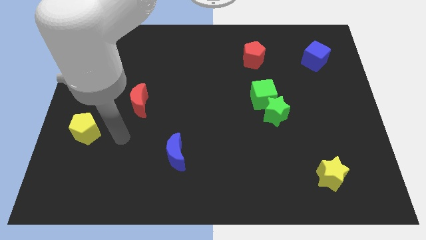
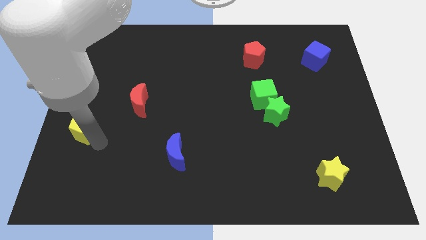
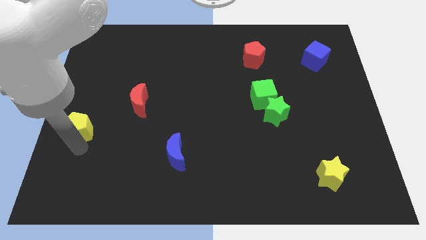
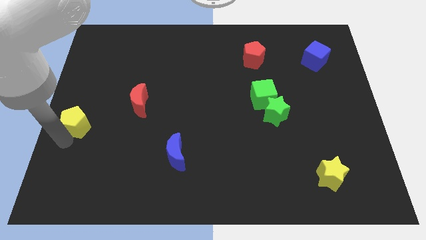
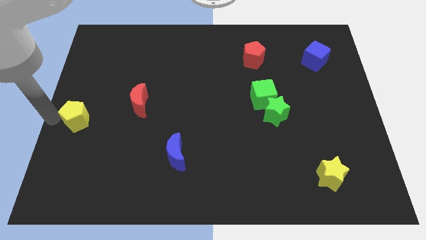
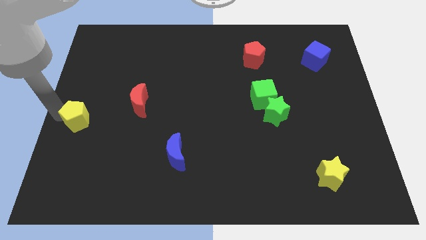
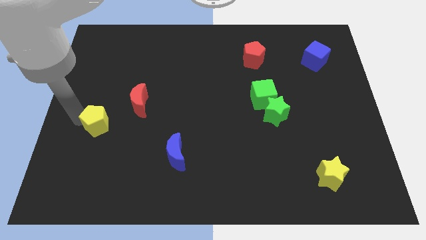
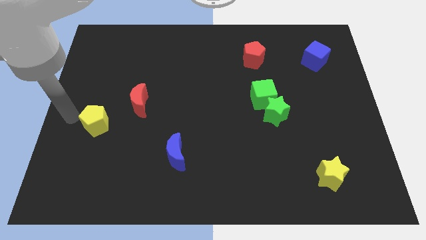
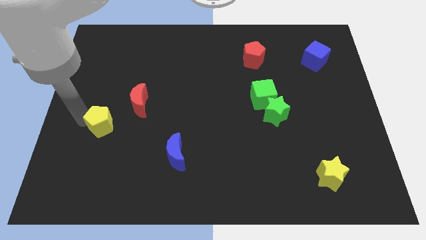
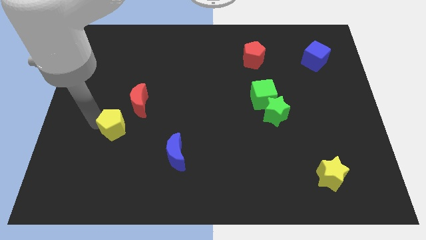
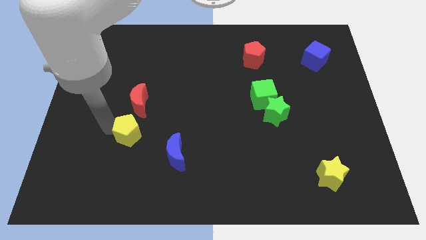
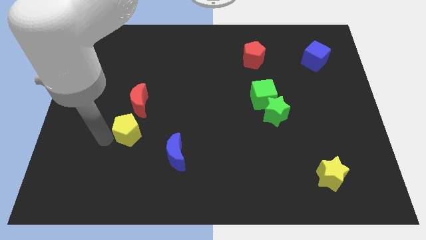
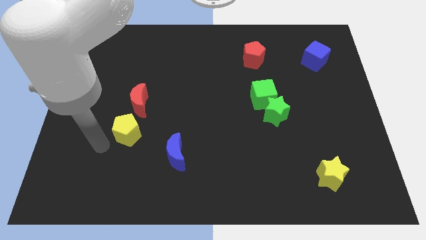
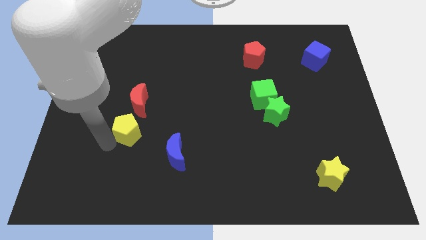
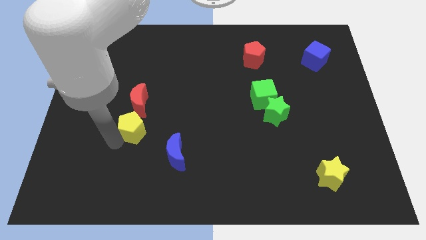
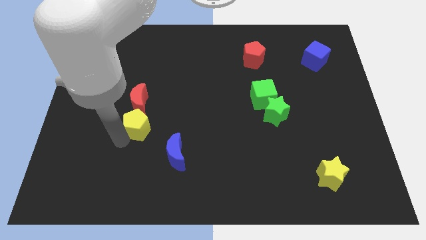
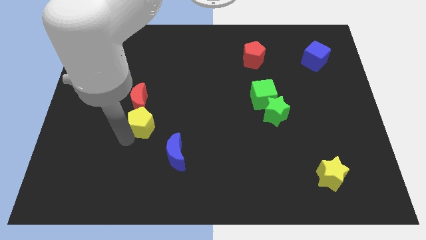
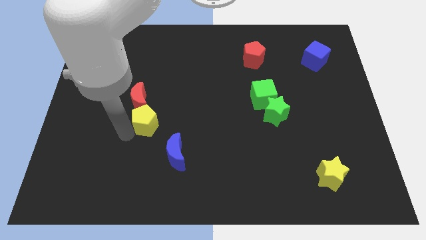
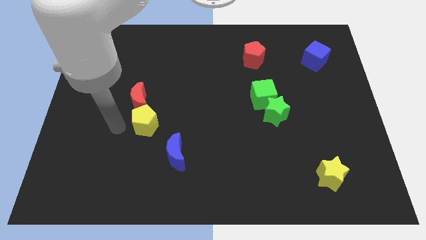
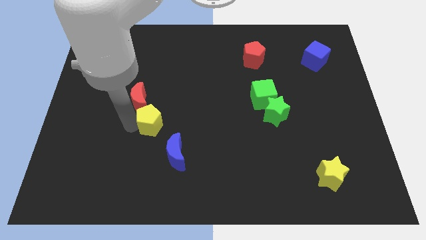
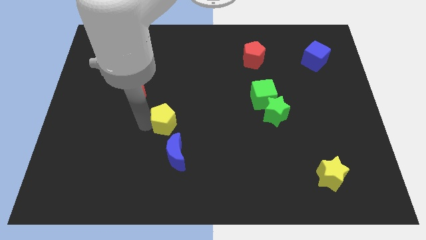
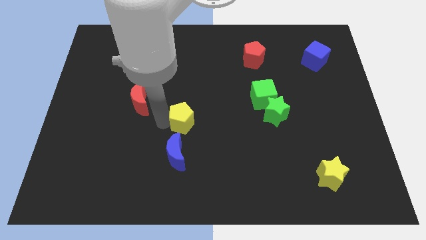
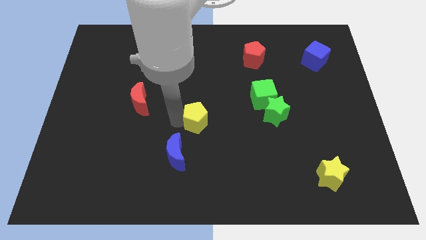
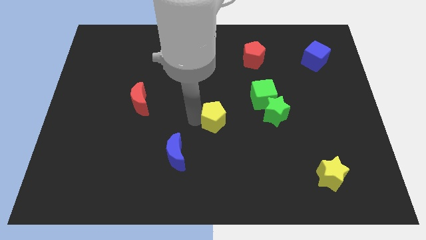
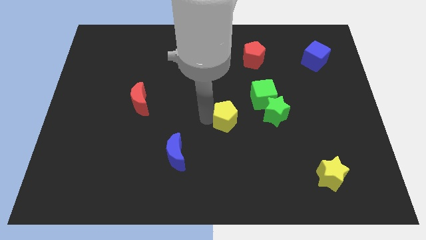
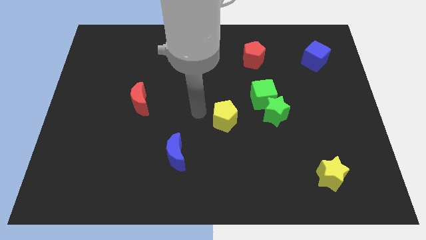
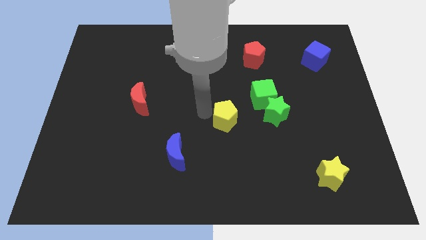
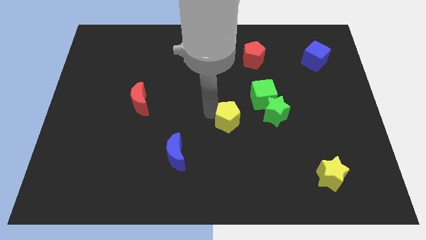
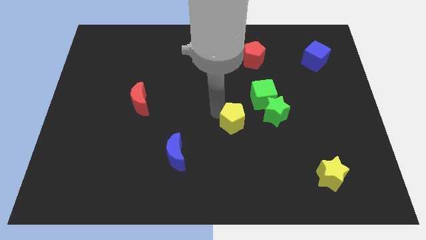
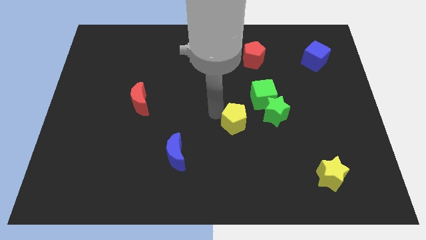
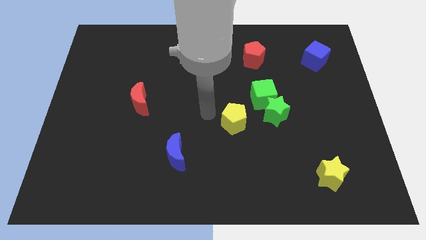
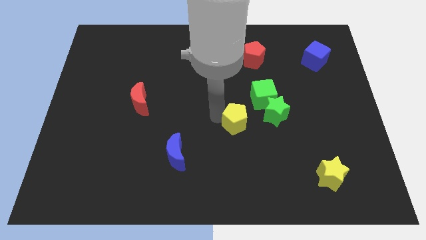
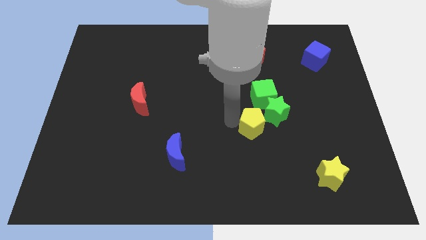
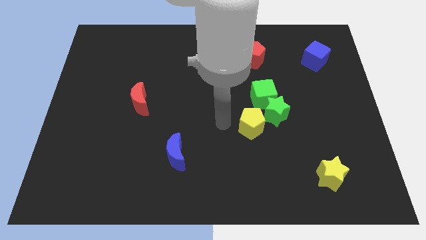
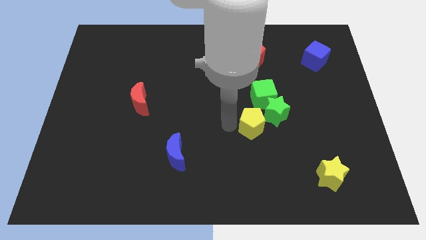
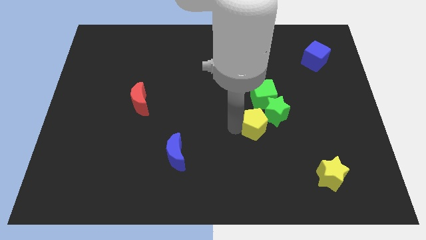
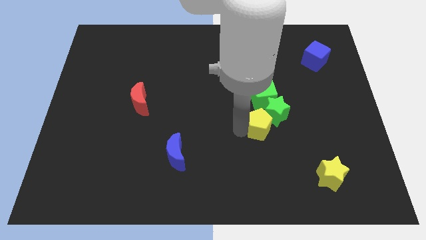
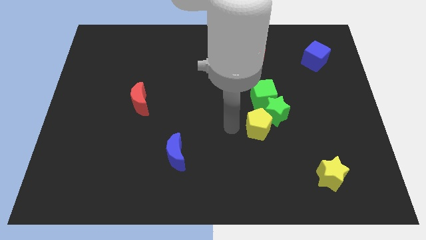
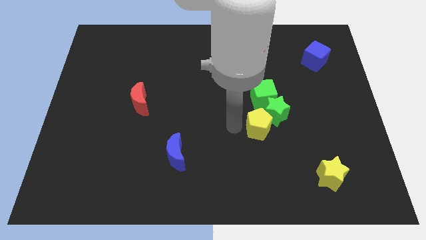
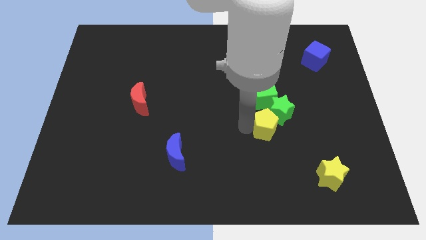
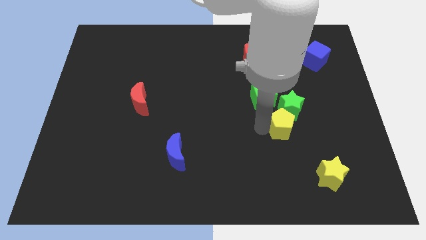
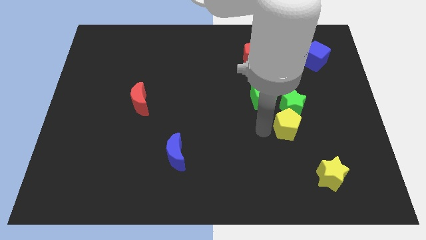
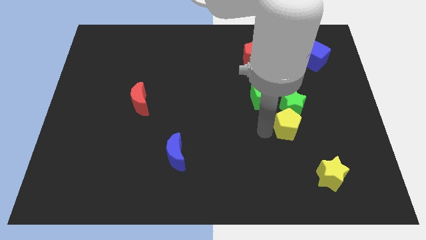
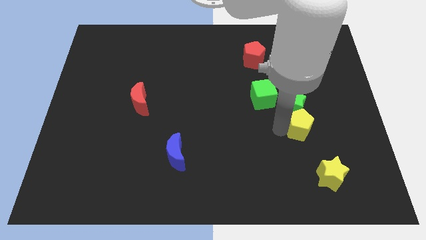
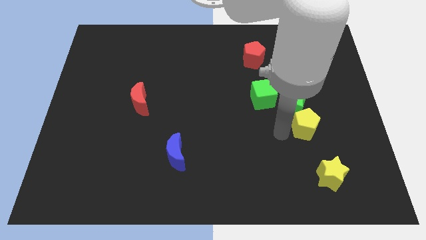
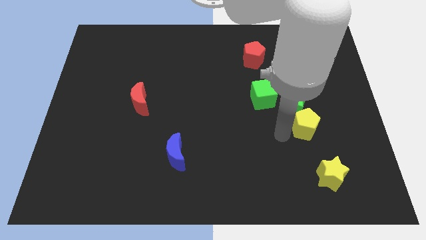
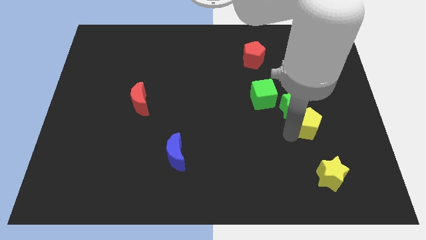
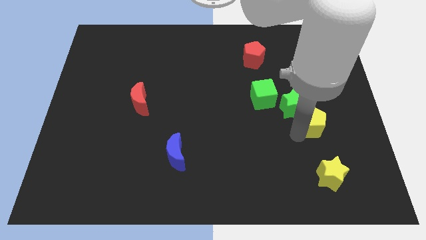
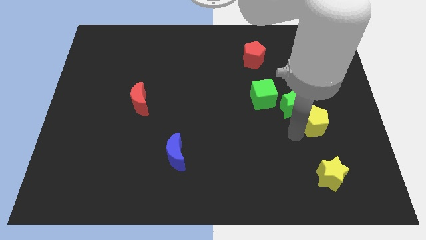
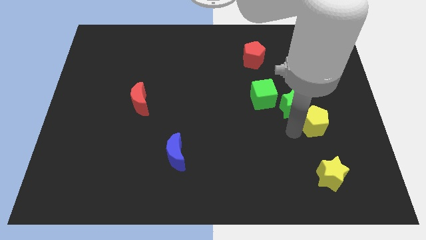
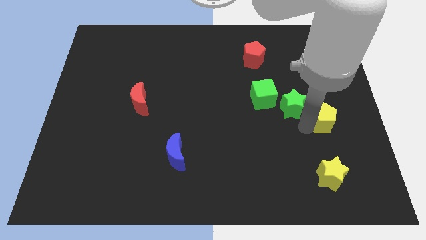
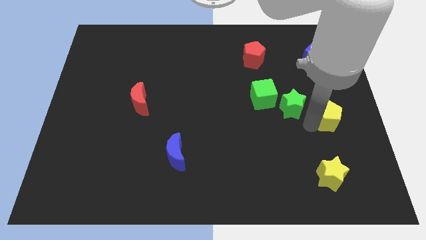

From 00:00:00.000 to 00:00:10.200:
slide the yellow pentagon to the right side

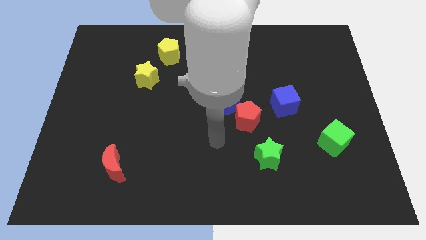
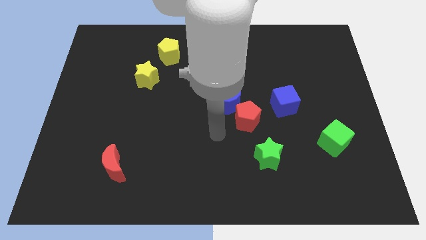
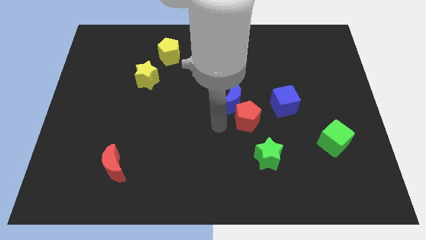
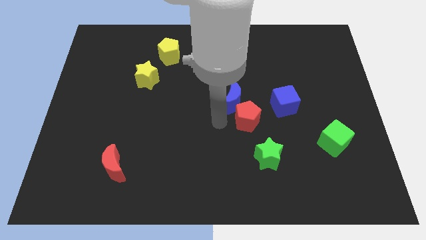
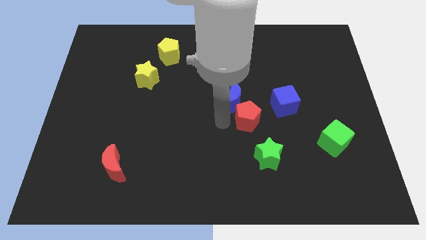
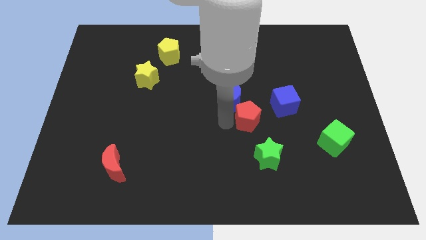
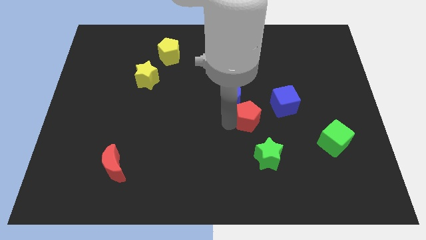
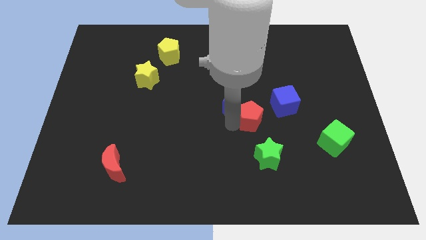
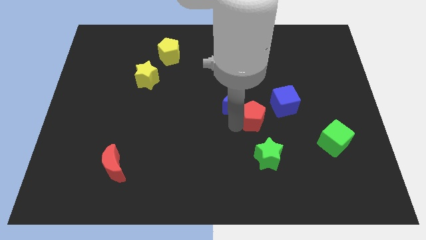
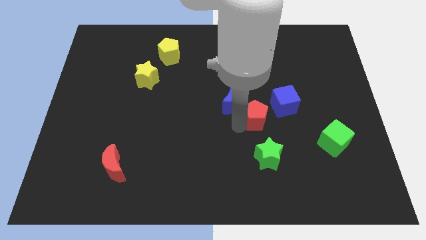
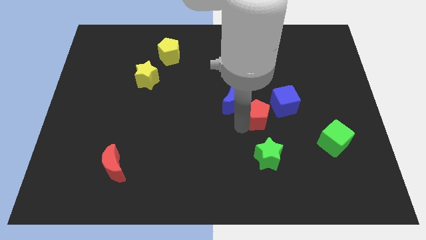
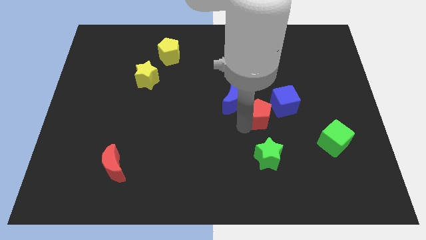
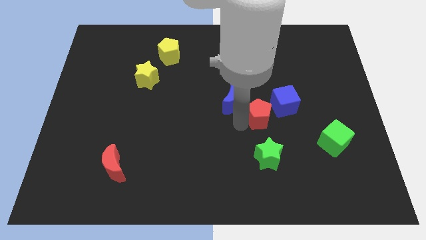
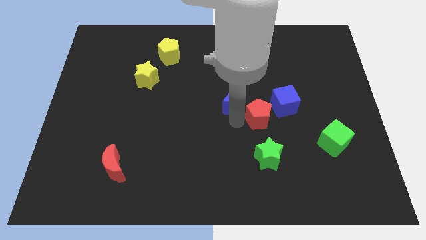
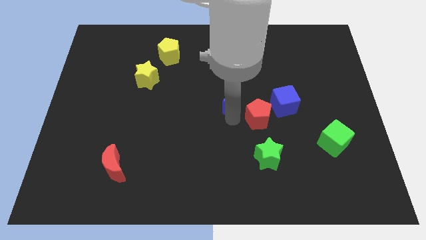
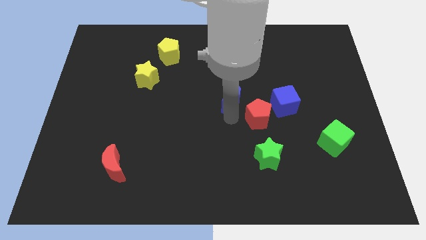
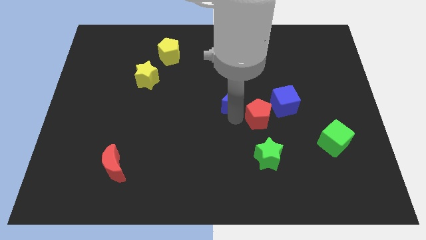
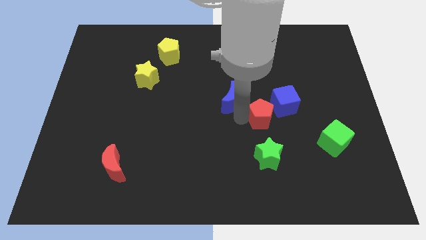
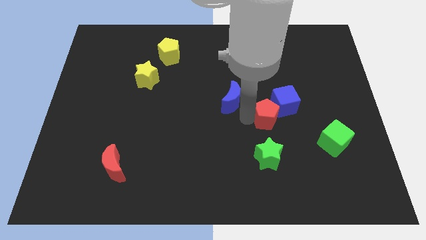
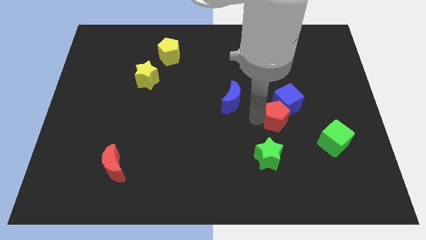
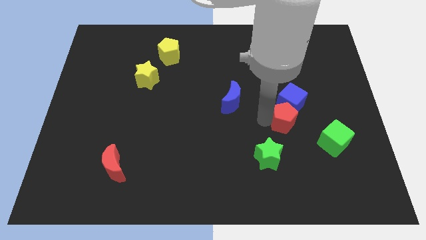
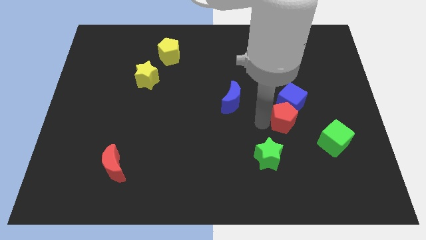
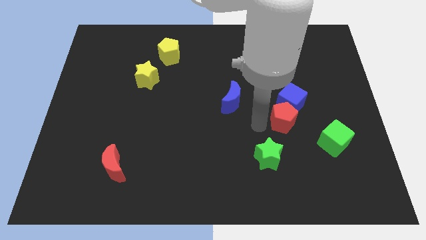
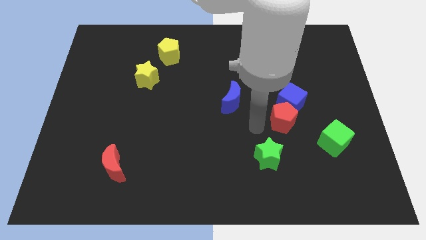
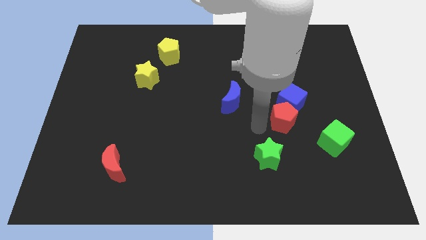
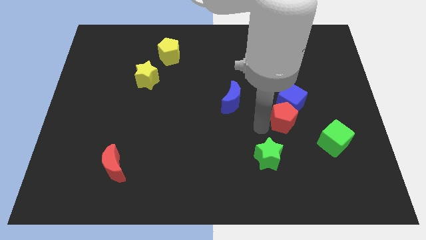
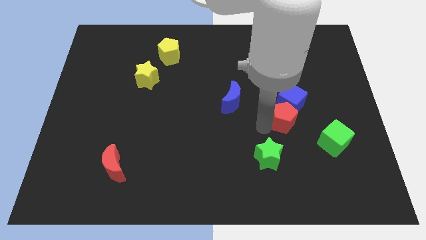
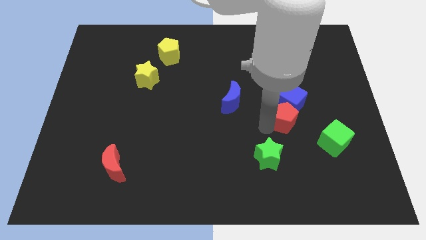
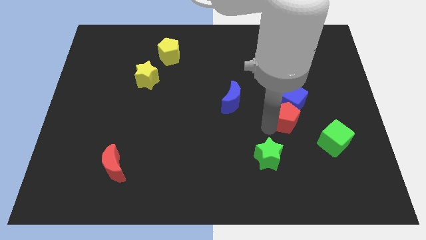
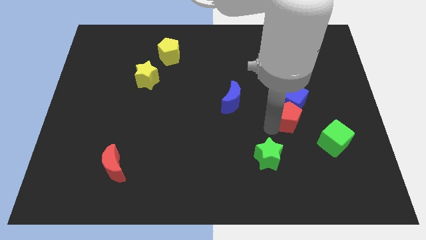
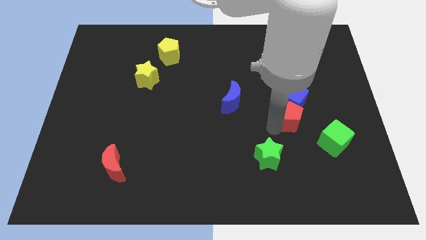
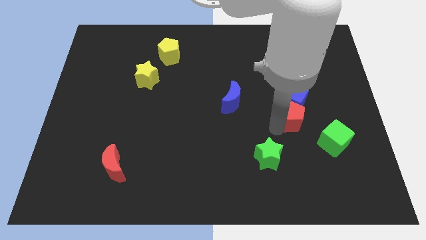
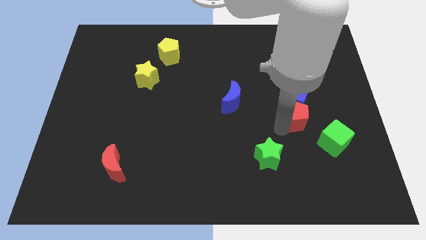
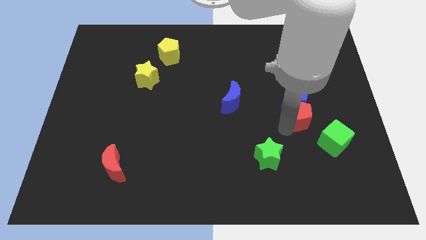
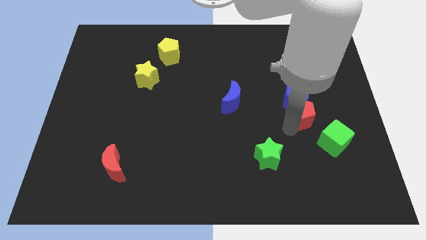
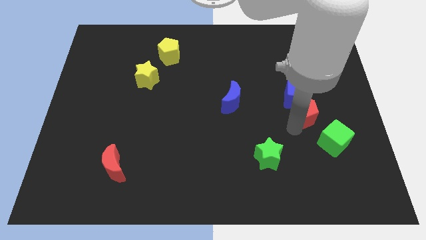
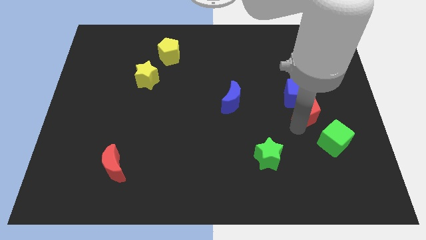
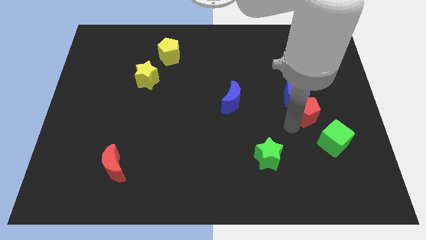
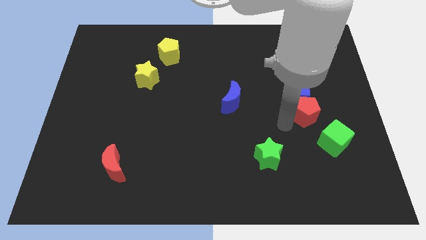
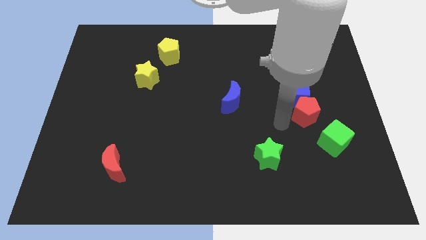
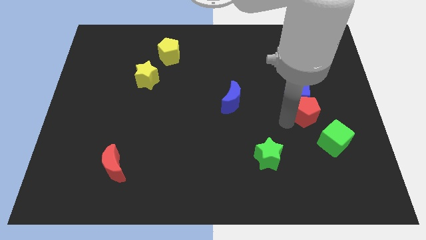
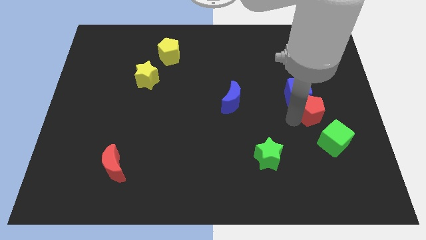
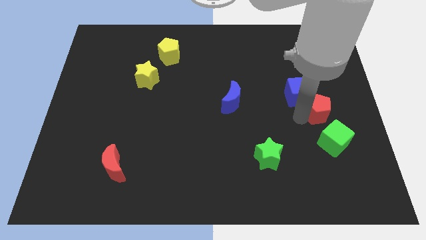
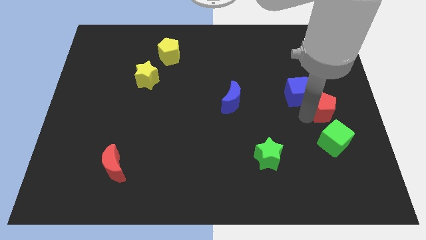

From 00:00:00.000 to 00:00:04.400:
push the red pentagon to the right side
